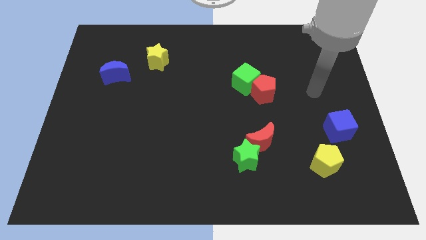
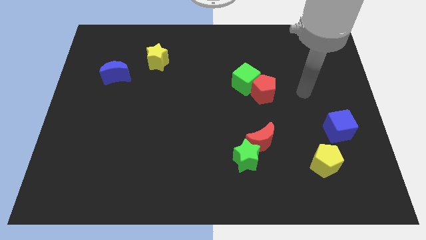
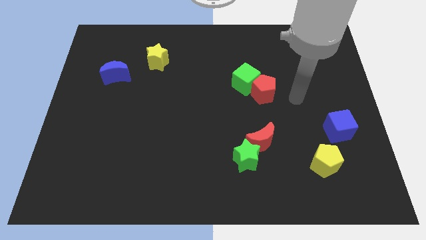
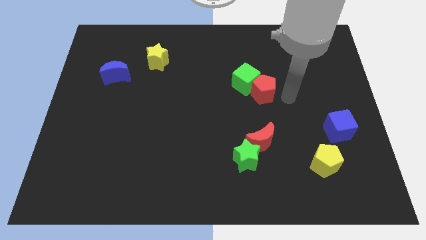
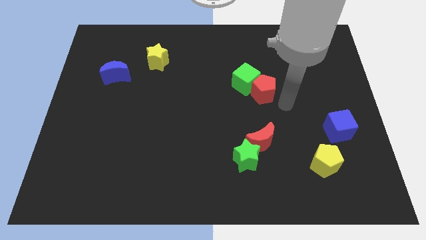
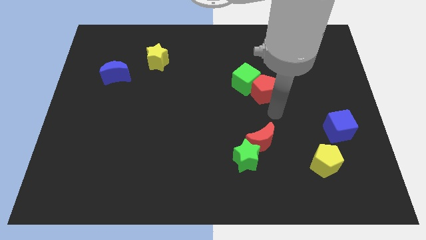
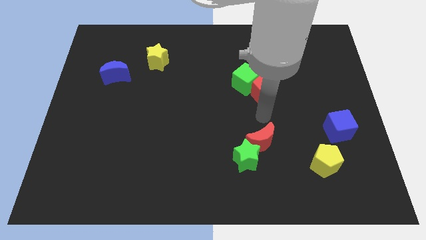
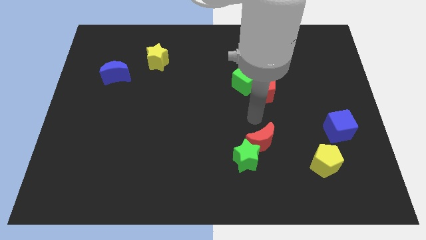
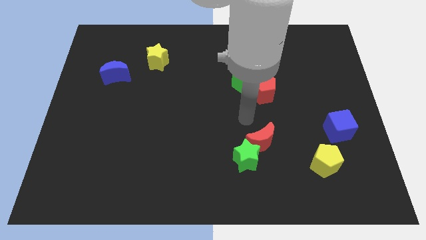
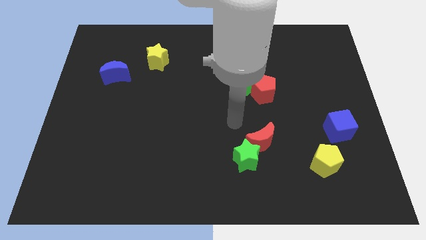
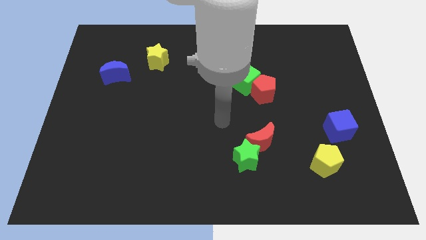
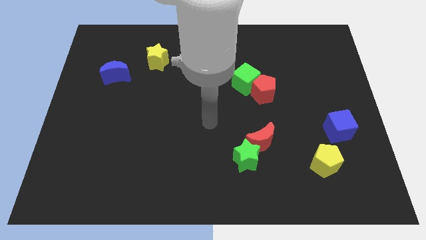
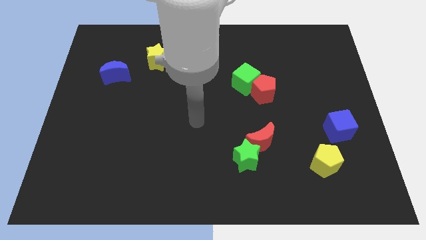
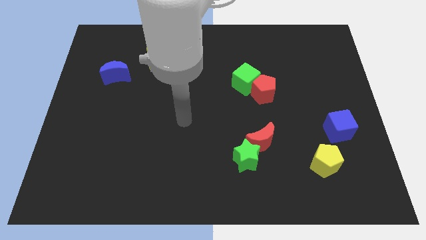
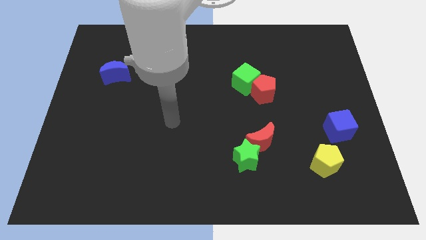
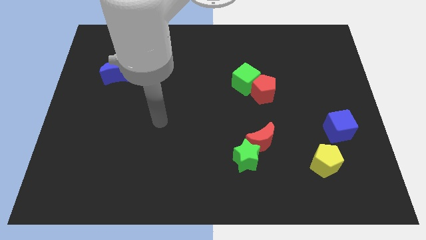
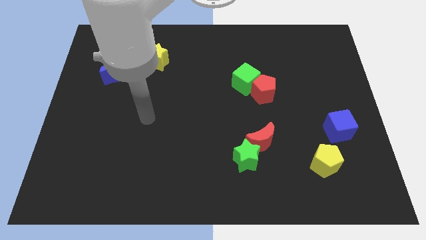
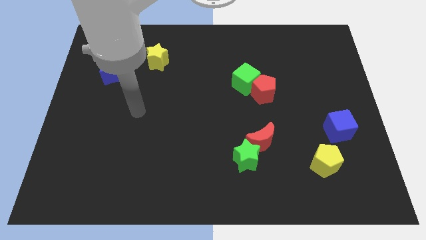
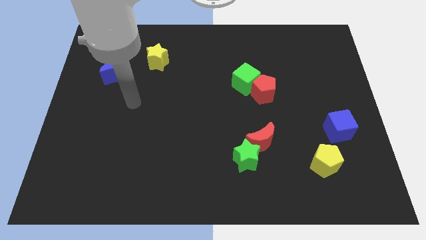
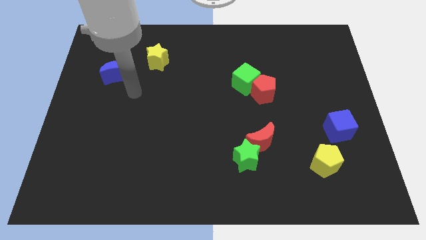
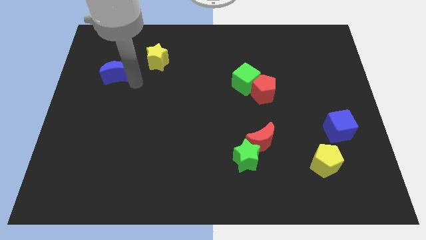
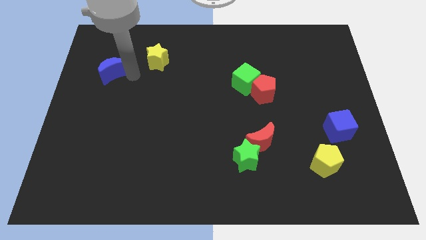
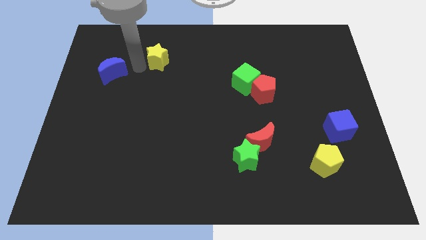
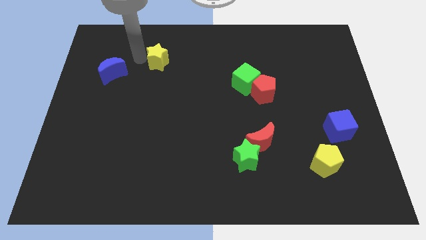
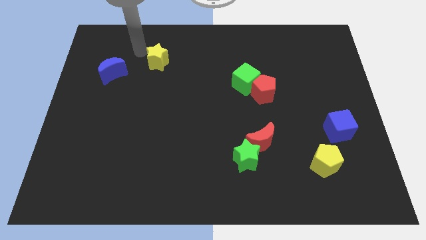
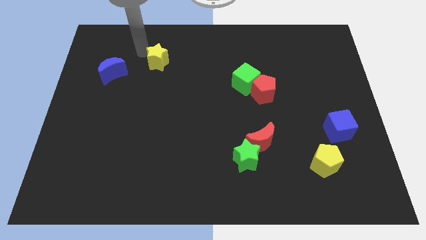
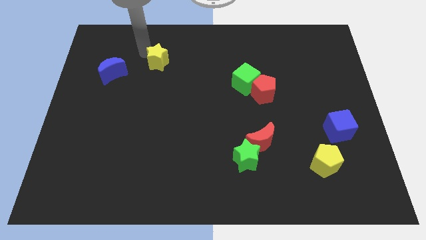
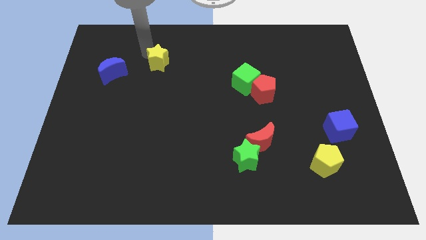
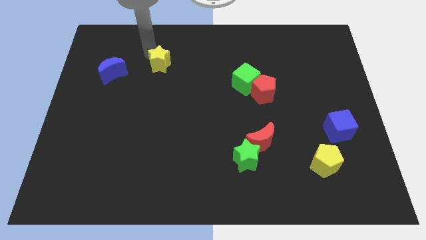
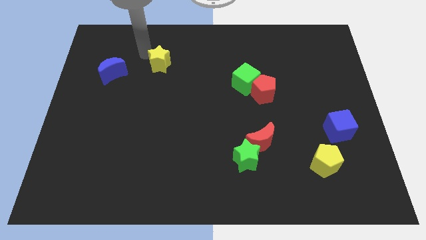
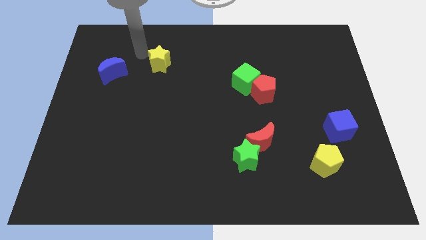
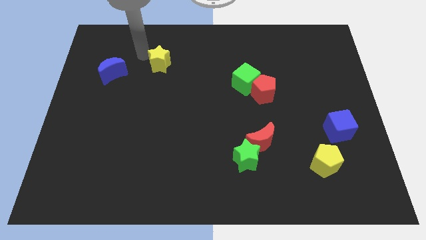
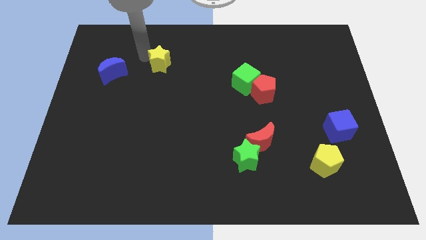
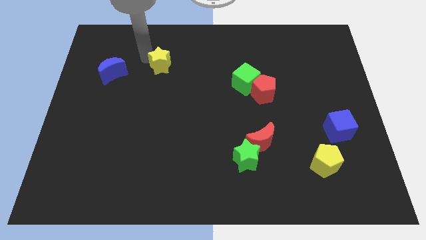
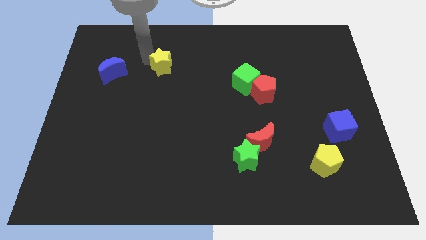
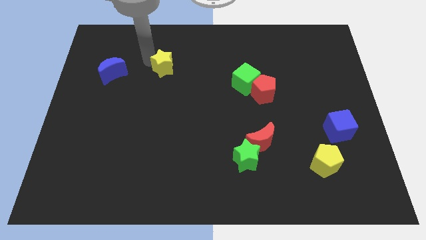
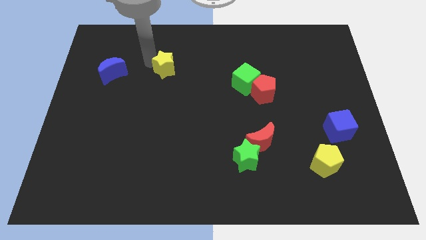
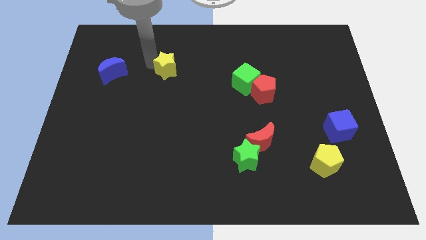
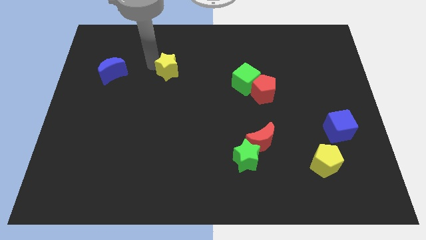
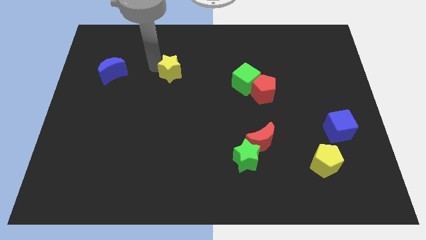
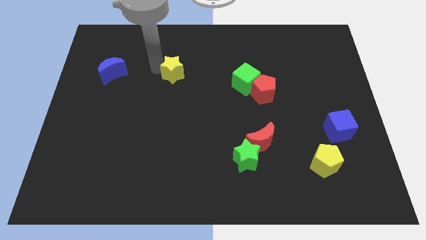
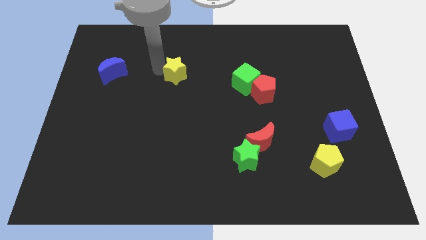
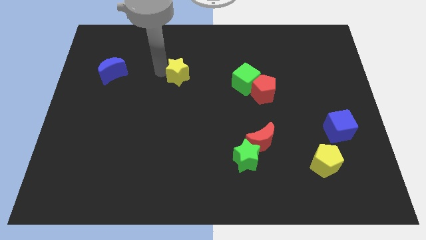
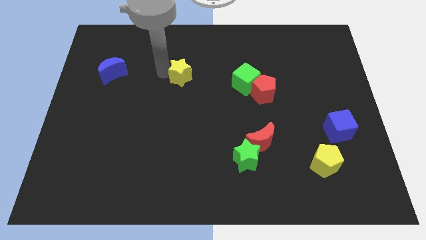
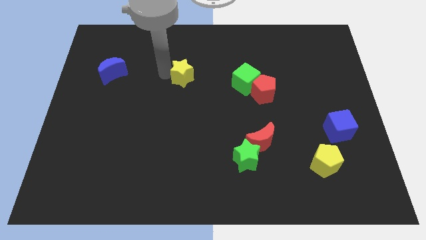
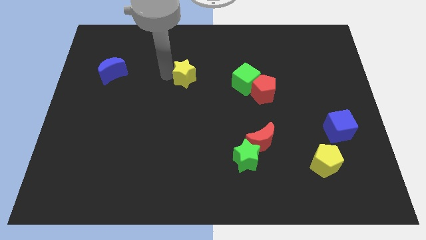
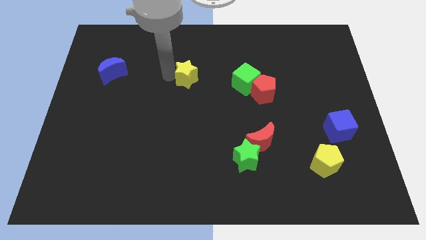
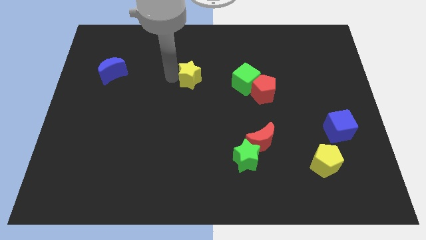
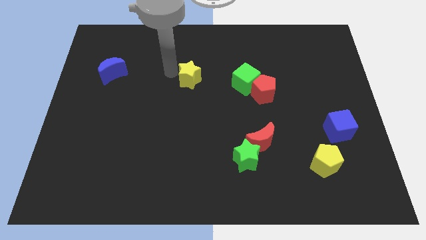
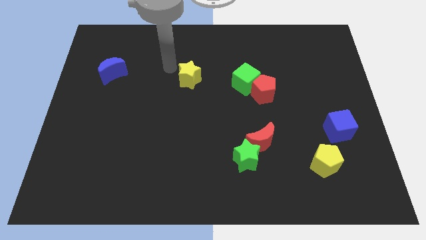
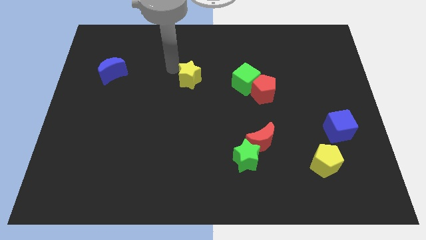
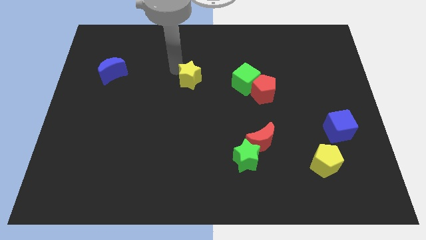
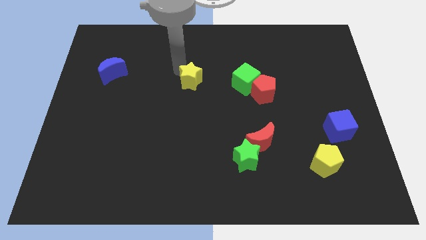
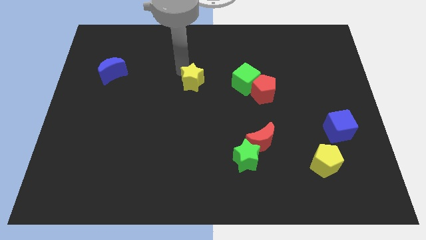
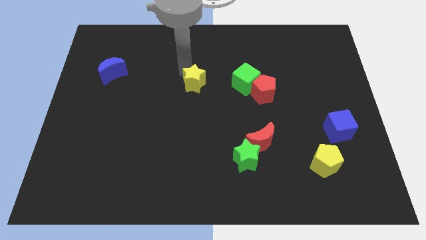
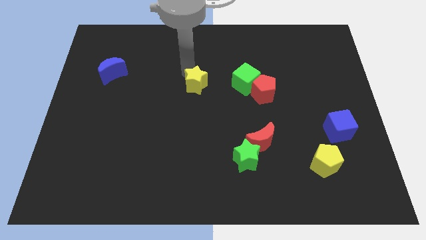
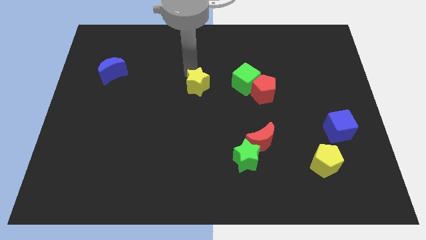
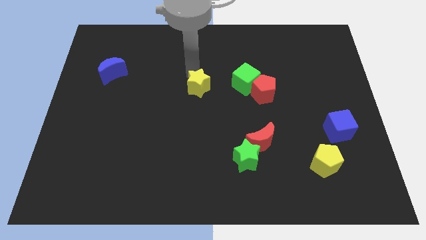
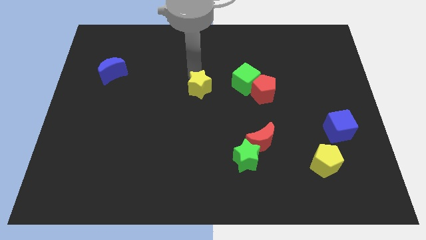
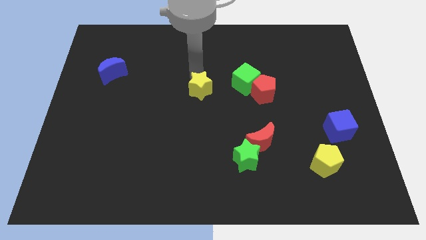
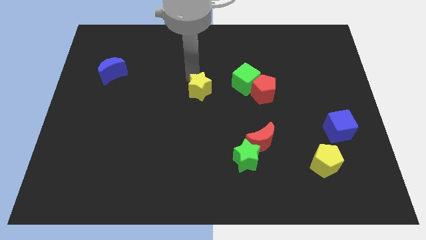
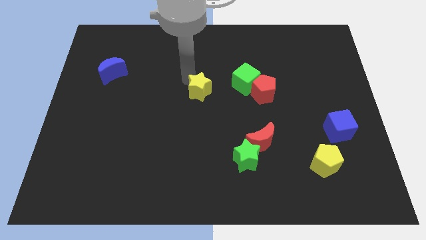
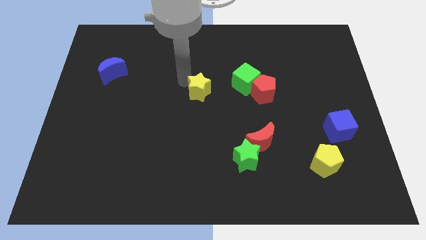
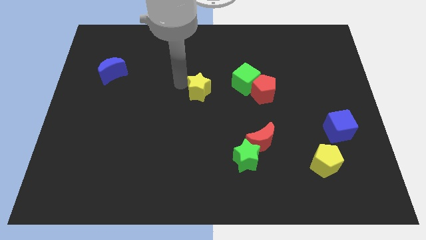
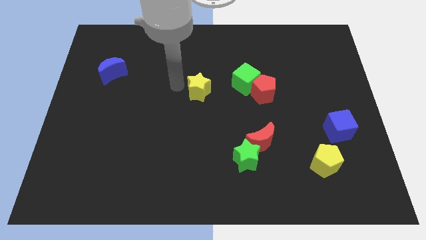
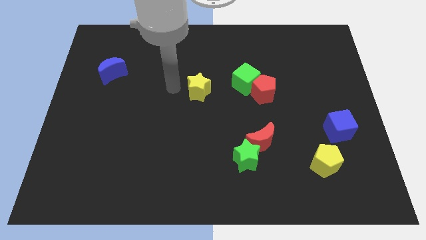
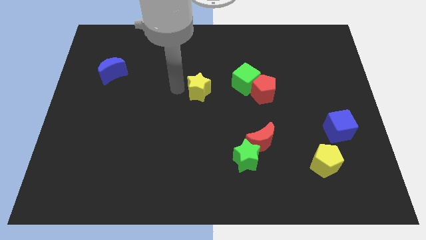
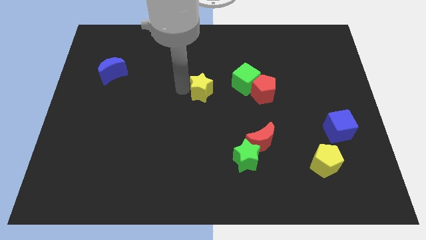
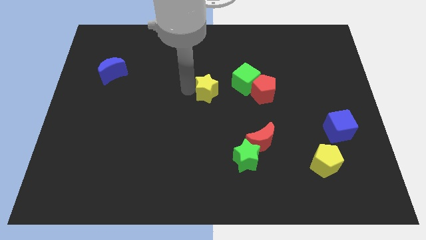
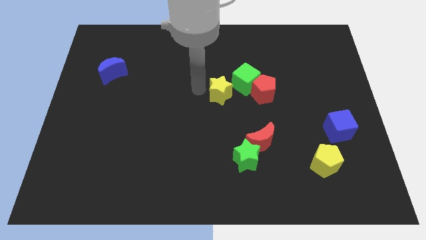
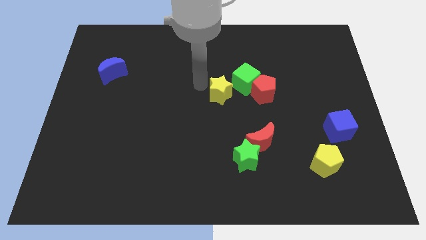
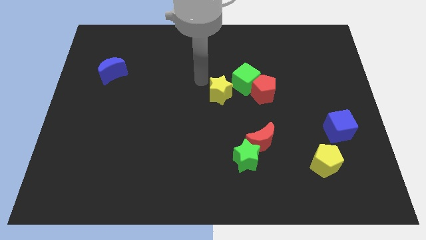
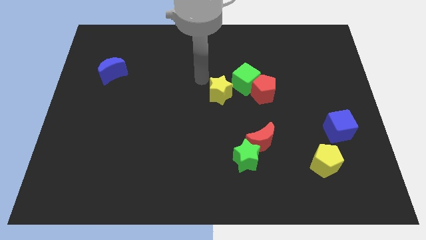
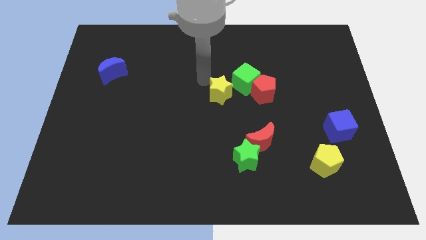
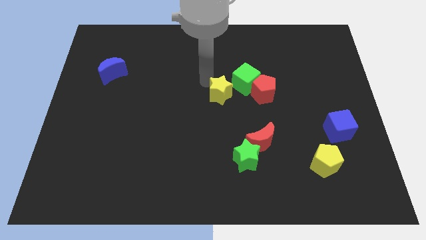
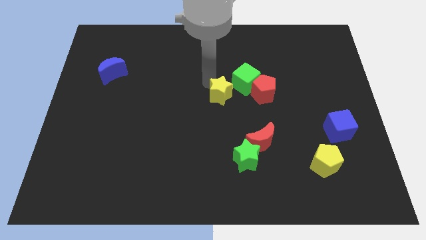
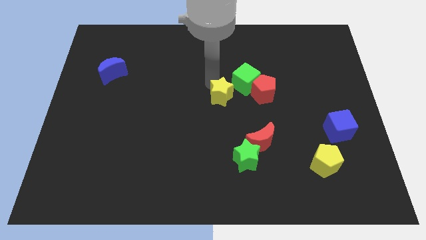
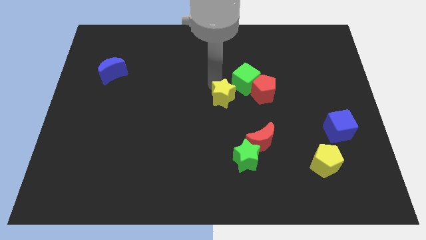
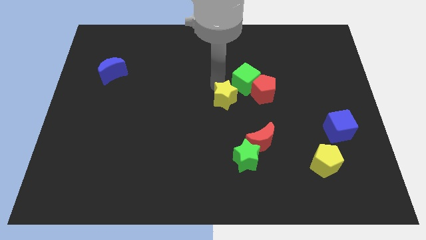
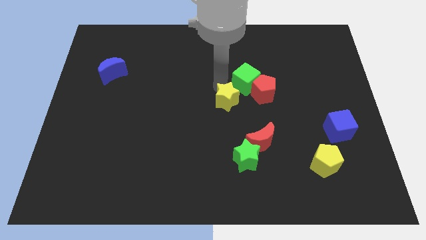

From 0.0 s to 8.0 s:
move the yellow star to the bottom left of the red pentagon
